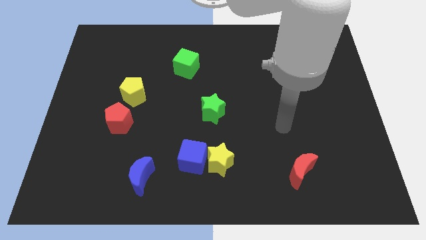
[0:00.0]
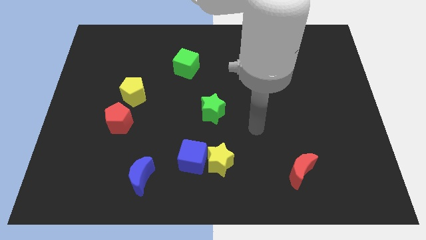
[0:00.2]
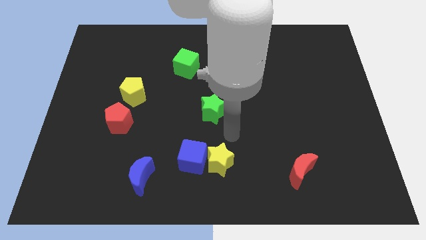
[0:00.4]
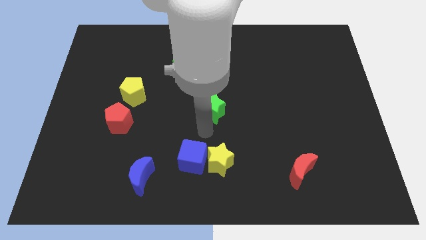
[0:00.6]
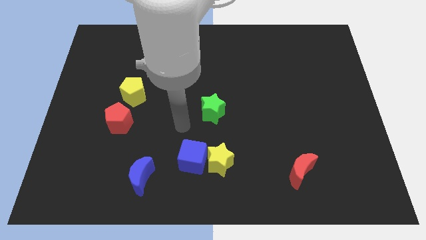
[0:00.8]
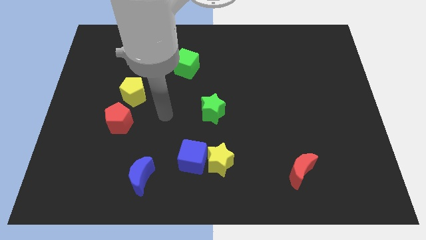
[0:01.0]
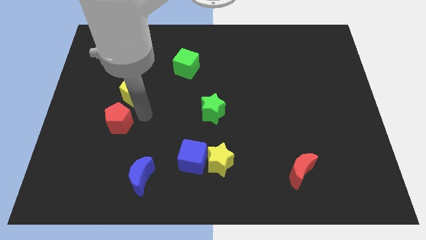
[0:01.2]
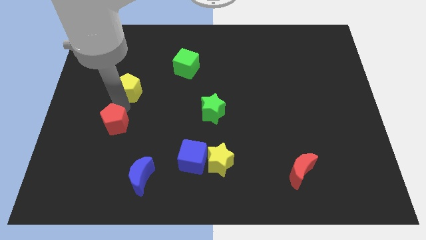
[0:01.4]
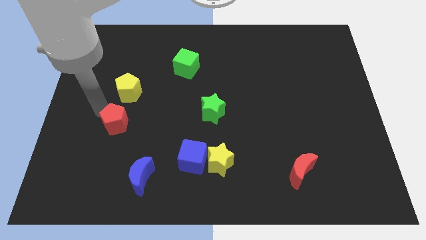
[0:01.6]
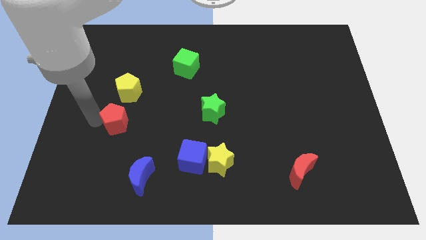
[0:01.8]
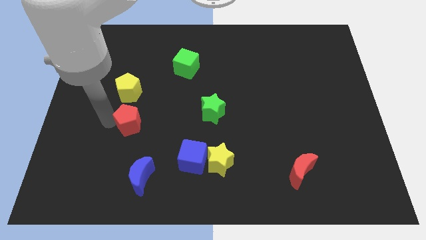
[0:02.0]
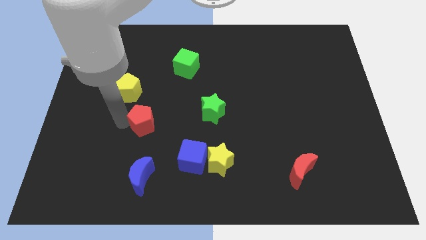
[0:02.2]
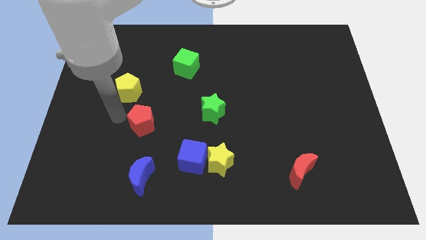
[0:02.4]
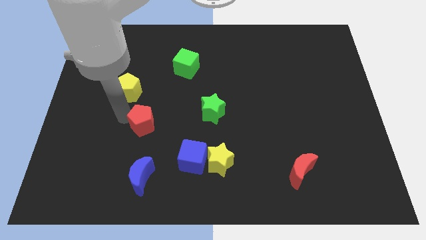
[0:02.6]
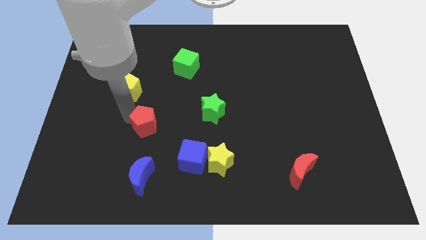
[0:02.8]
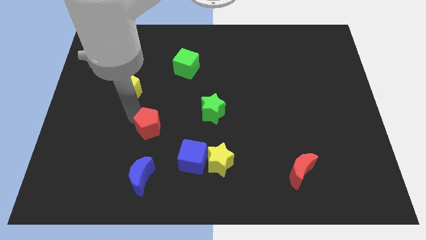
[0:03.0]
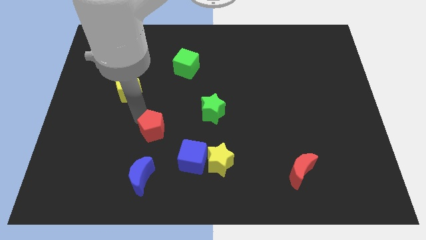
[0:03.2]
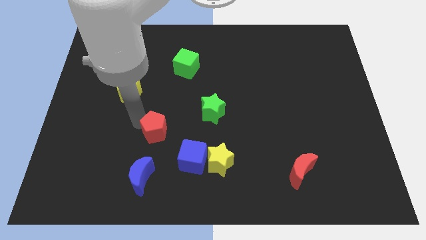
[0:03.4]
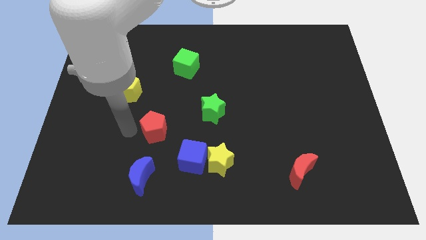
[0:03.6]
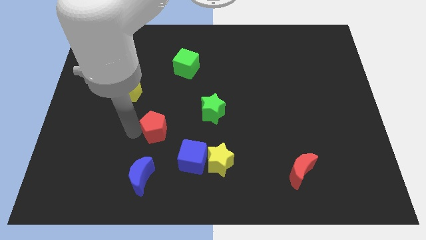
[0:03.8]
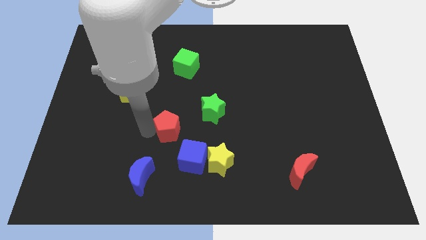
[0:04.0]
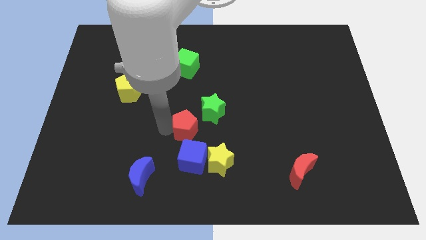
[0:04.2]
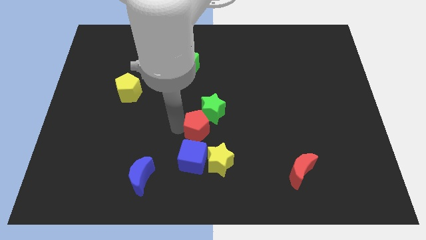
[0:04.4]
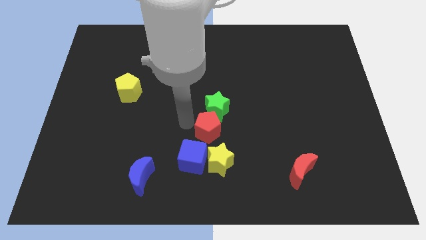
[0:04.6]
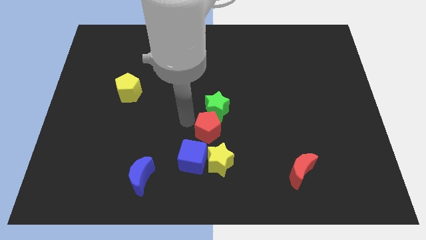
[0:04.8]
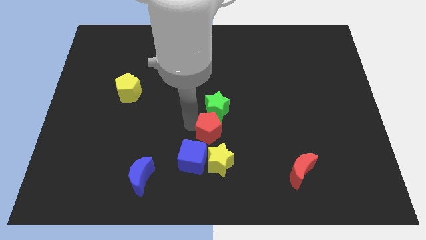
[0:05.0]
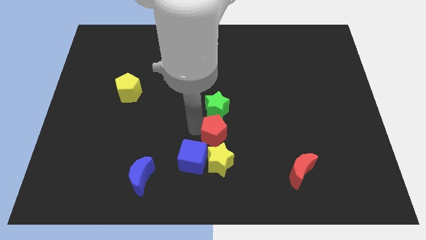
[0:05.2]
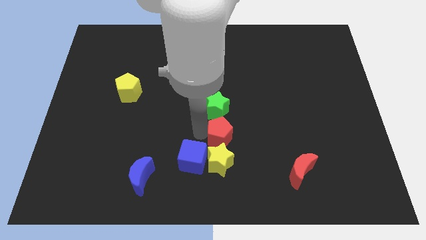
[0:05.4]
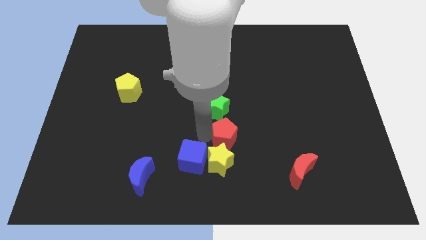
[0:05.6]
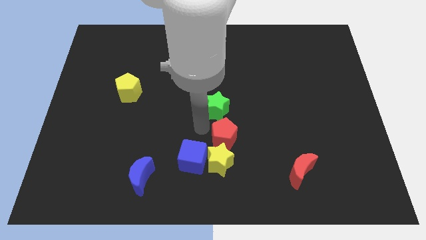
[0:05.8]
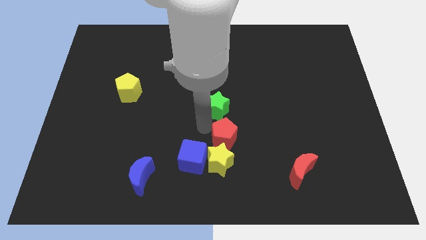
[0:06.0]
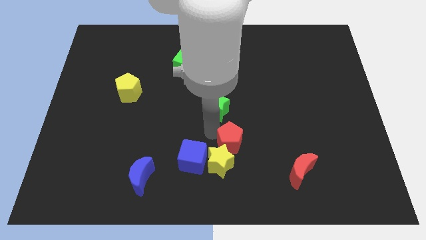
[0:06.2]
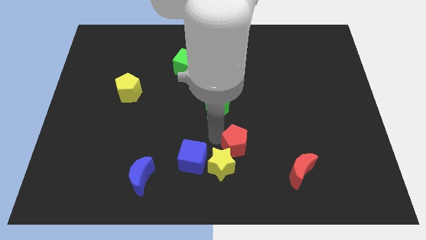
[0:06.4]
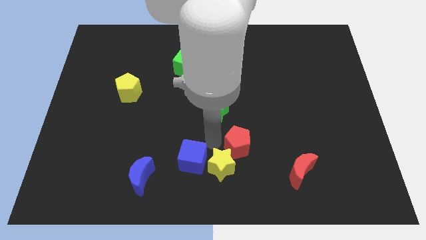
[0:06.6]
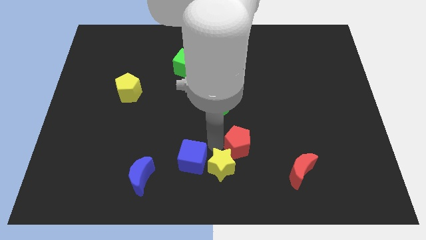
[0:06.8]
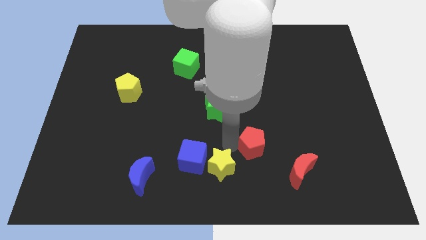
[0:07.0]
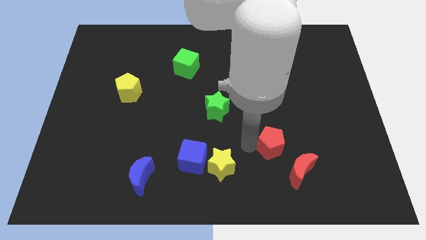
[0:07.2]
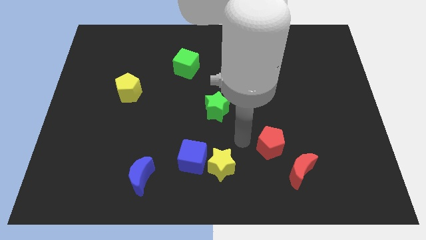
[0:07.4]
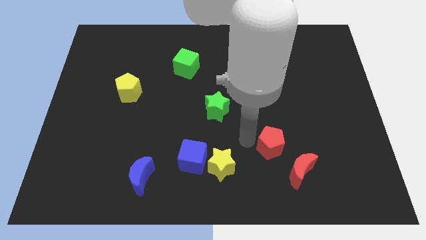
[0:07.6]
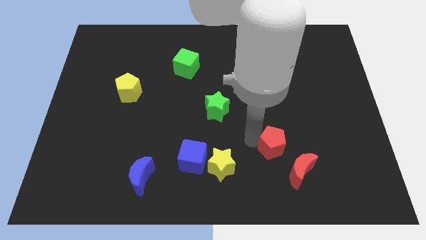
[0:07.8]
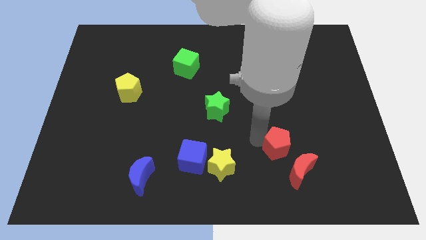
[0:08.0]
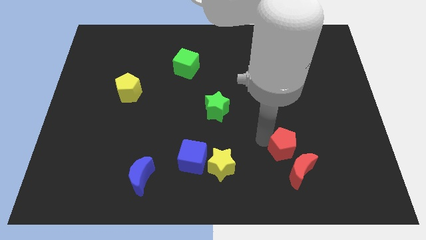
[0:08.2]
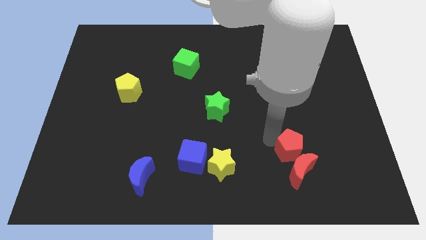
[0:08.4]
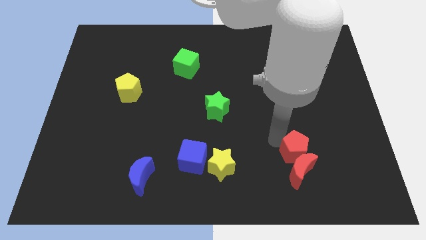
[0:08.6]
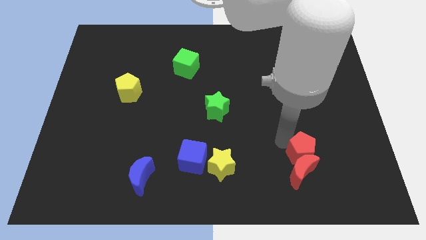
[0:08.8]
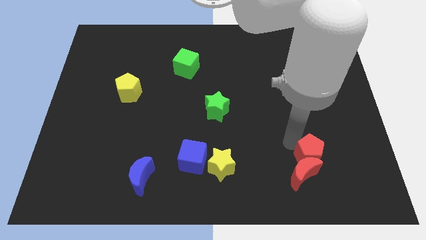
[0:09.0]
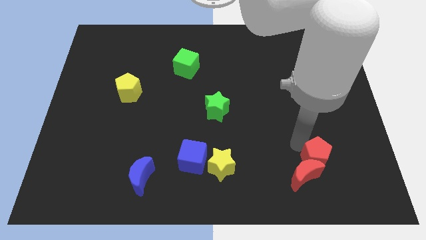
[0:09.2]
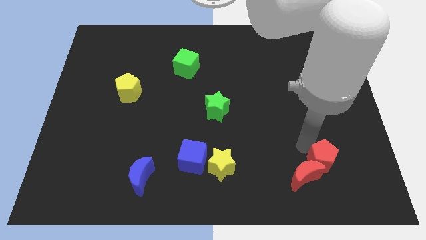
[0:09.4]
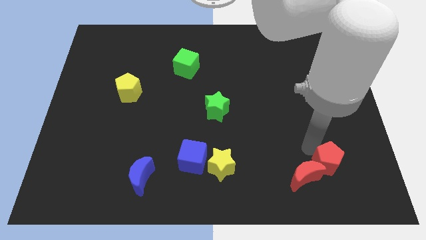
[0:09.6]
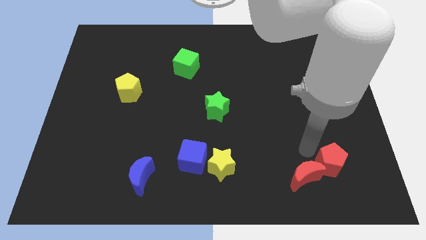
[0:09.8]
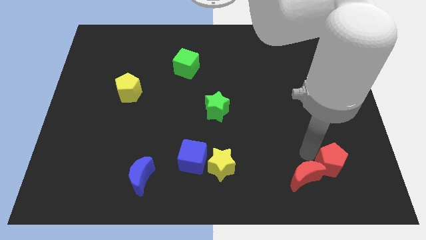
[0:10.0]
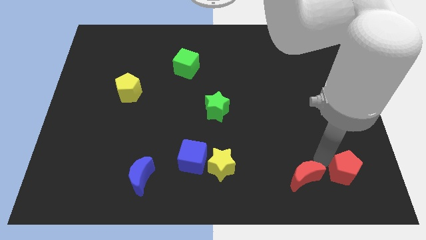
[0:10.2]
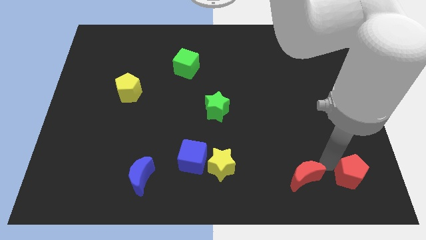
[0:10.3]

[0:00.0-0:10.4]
put the red pentagon to the bottom right

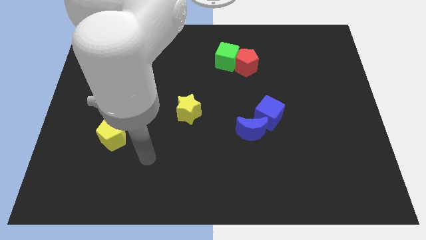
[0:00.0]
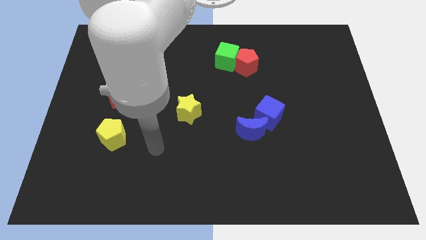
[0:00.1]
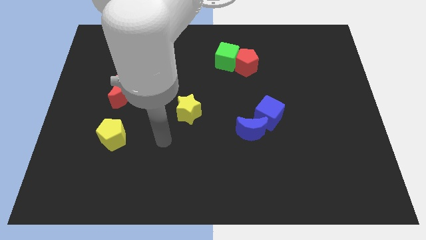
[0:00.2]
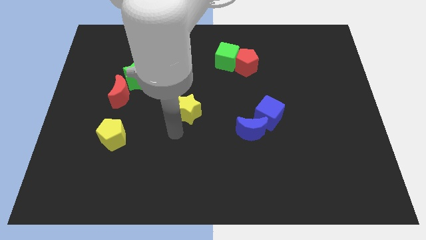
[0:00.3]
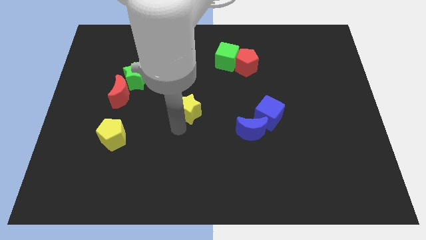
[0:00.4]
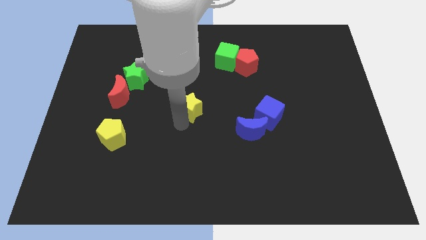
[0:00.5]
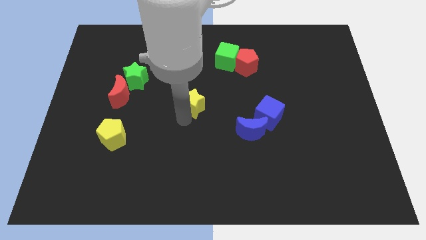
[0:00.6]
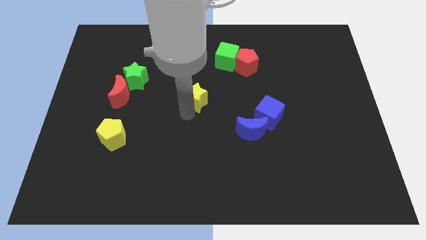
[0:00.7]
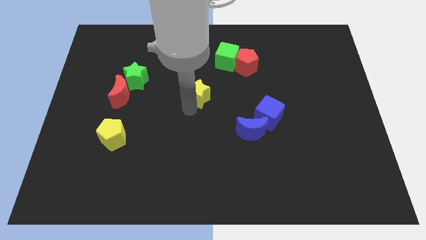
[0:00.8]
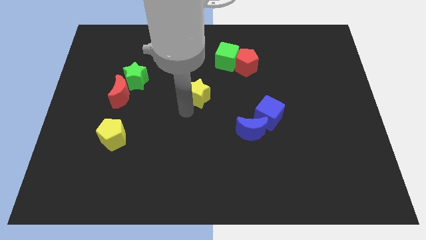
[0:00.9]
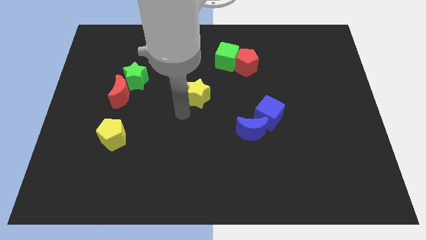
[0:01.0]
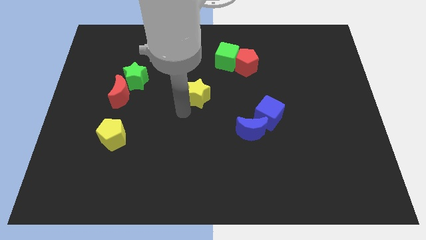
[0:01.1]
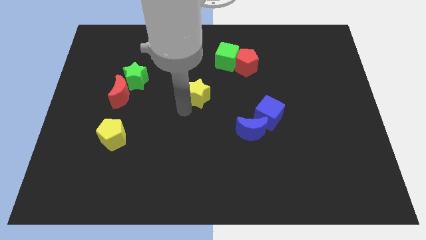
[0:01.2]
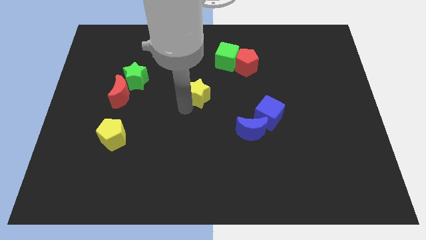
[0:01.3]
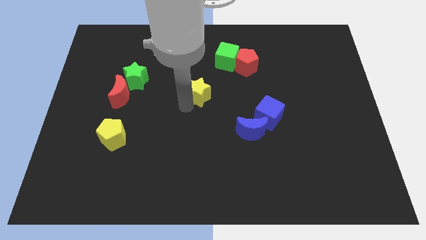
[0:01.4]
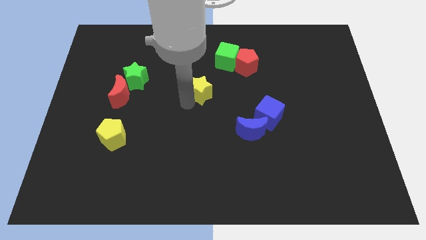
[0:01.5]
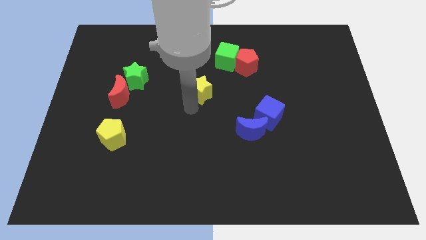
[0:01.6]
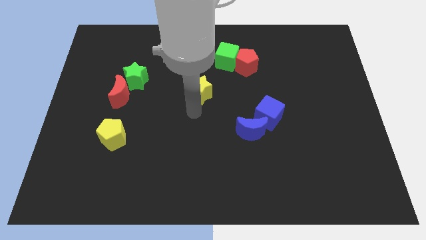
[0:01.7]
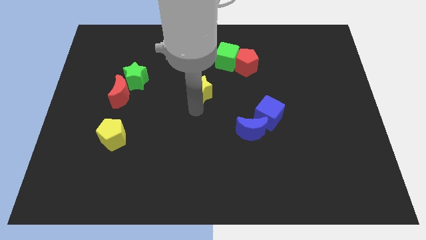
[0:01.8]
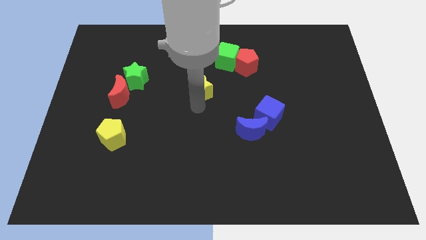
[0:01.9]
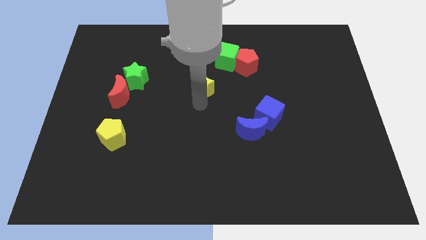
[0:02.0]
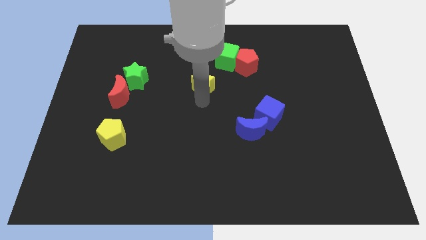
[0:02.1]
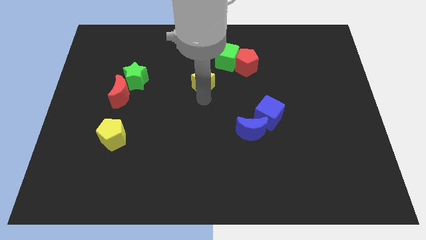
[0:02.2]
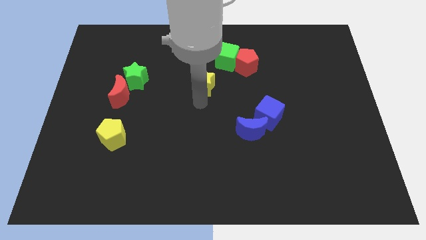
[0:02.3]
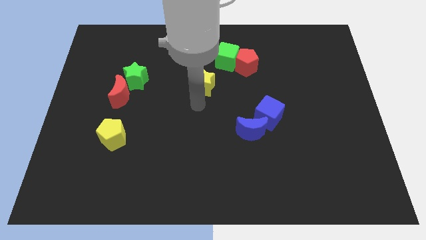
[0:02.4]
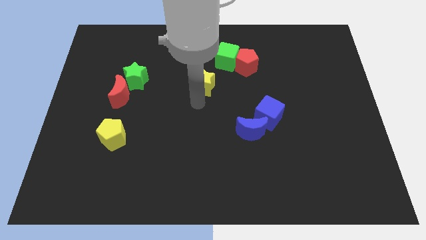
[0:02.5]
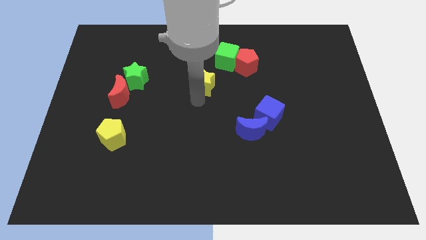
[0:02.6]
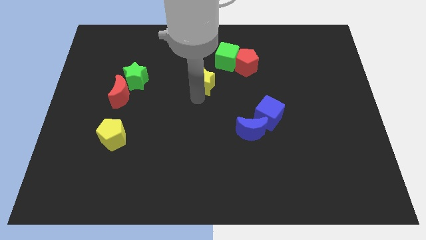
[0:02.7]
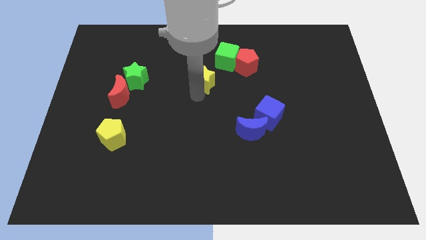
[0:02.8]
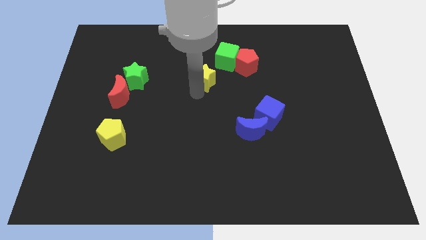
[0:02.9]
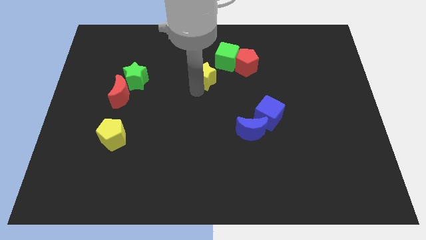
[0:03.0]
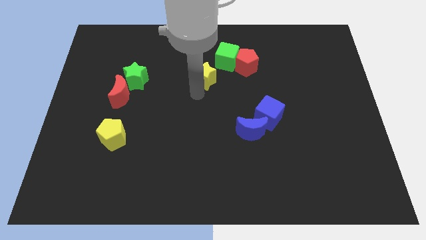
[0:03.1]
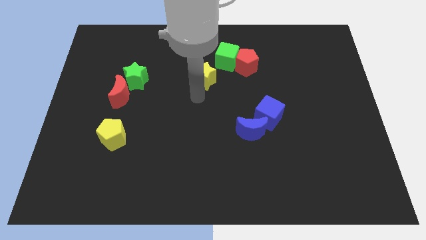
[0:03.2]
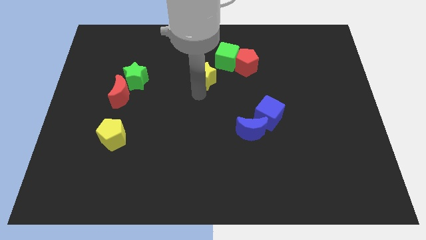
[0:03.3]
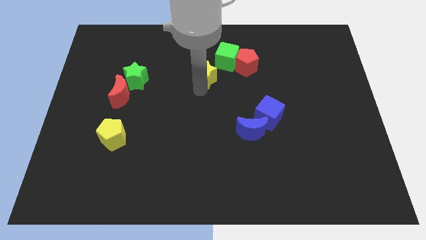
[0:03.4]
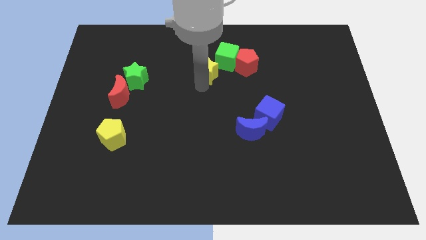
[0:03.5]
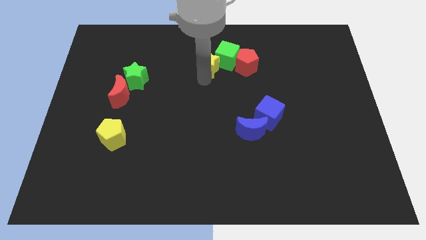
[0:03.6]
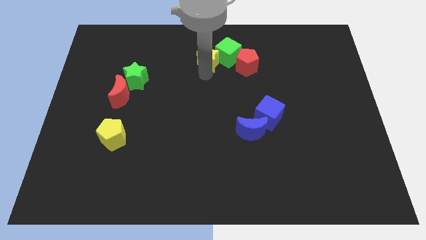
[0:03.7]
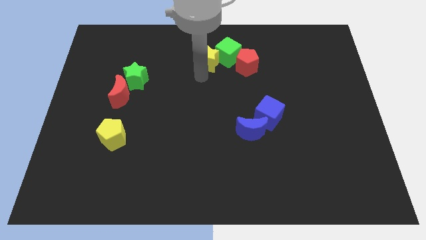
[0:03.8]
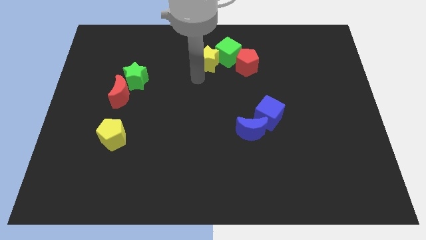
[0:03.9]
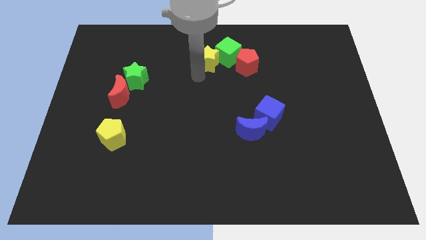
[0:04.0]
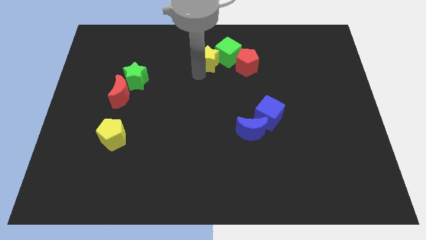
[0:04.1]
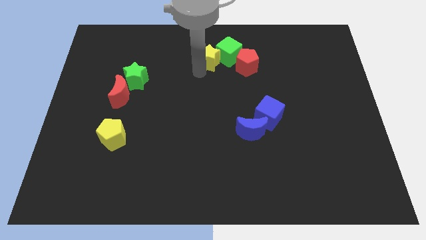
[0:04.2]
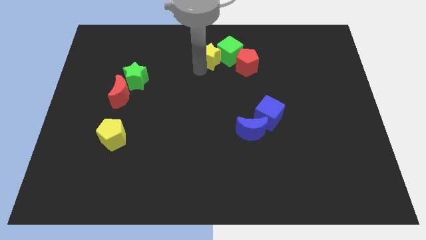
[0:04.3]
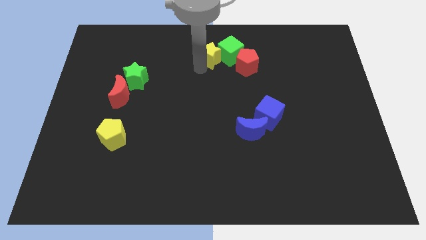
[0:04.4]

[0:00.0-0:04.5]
put the yellow star to the top side
